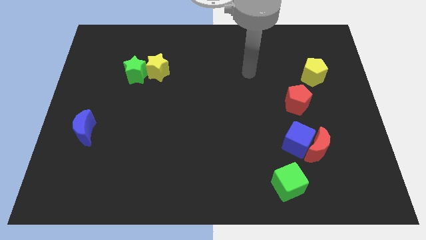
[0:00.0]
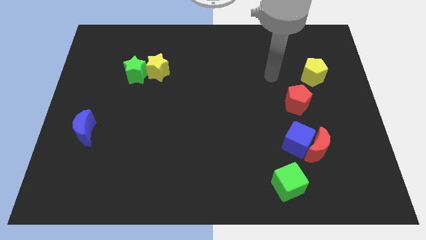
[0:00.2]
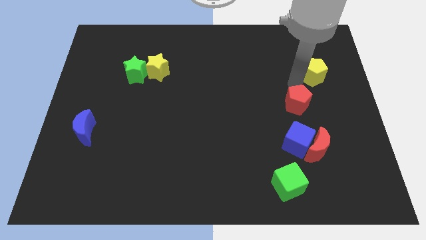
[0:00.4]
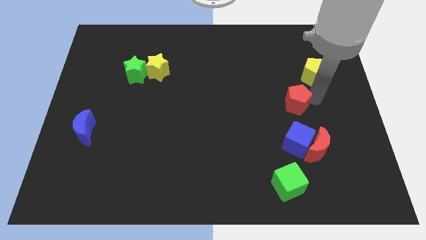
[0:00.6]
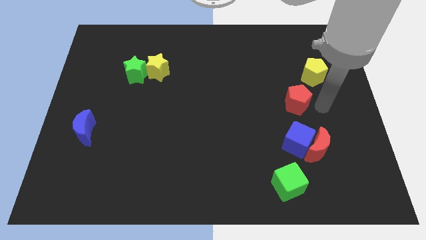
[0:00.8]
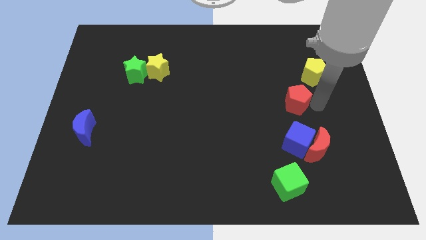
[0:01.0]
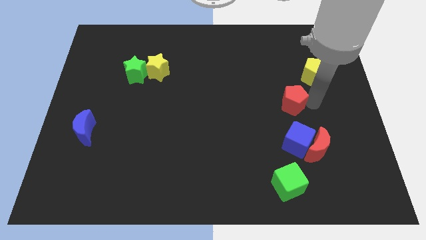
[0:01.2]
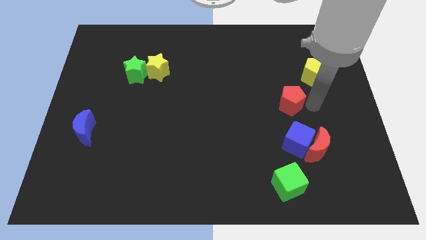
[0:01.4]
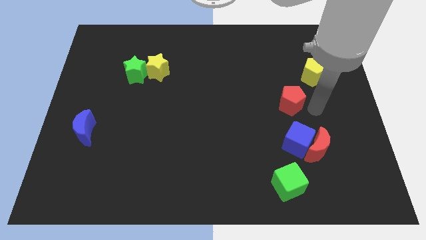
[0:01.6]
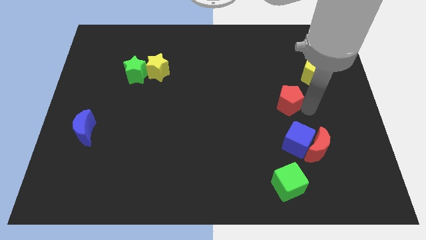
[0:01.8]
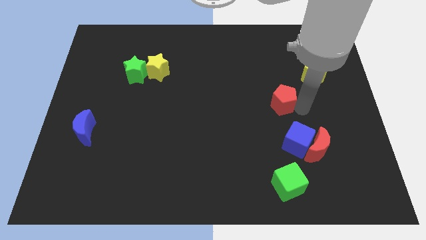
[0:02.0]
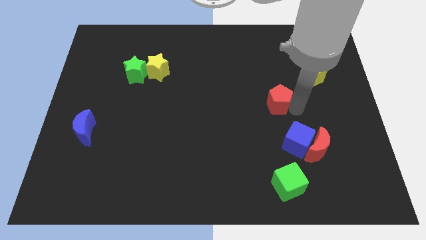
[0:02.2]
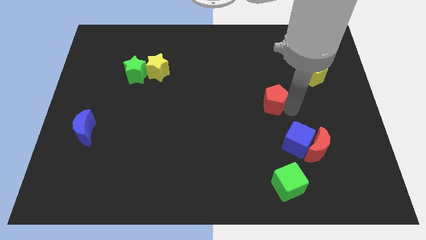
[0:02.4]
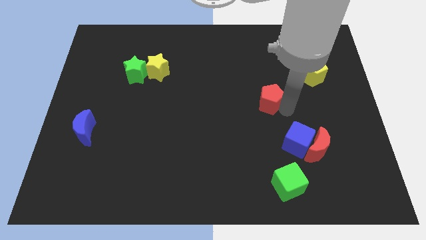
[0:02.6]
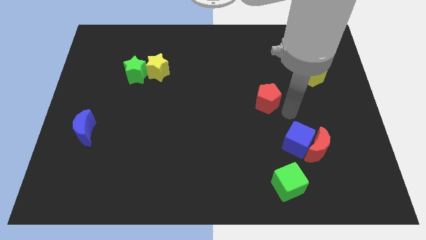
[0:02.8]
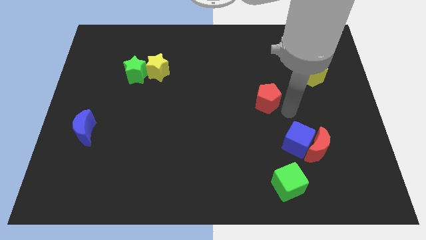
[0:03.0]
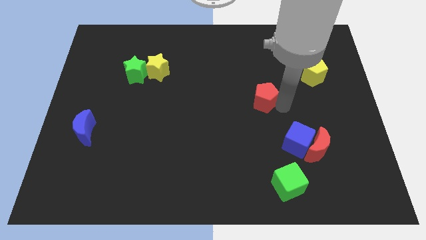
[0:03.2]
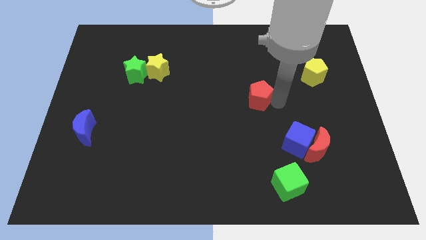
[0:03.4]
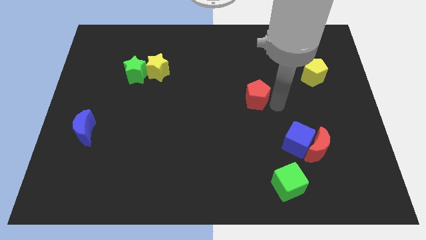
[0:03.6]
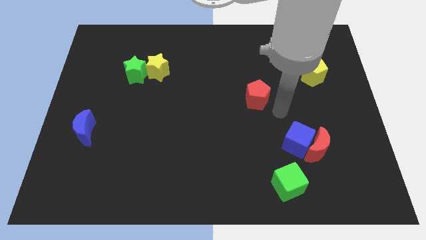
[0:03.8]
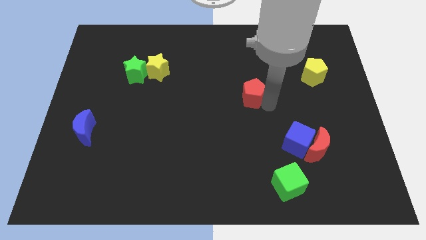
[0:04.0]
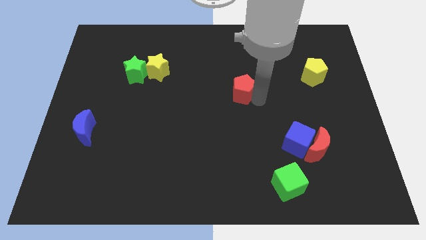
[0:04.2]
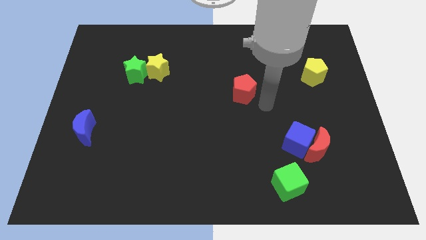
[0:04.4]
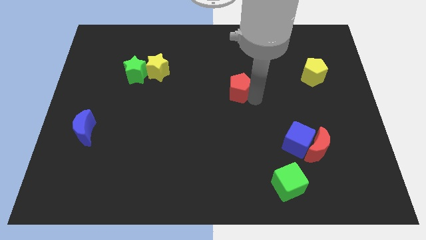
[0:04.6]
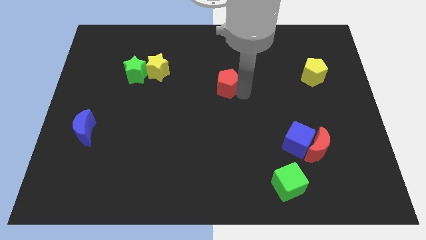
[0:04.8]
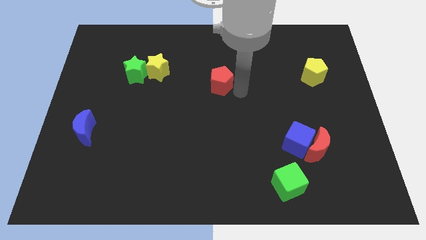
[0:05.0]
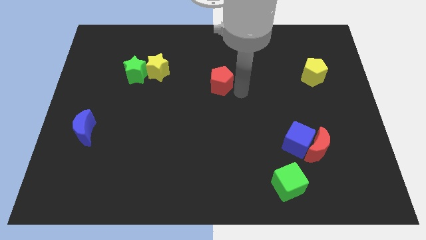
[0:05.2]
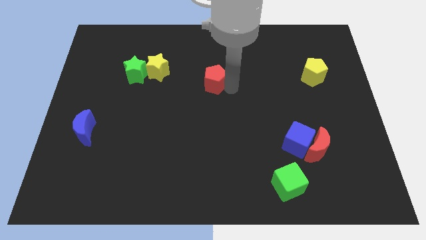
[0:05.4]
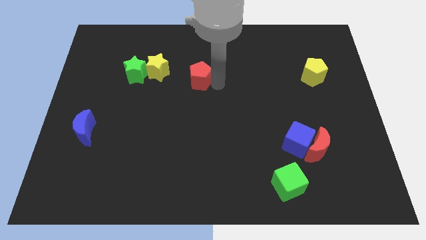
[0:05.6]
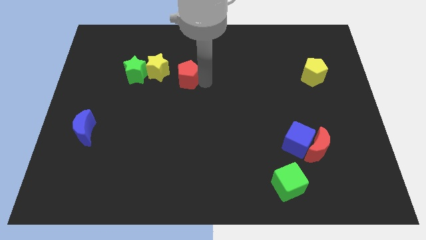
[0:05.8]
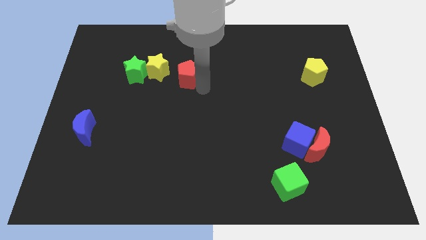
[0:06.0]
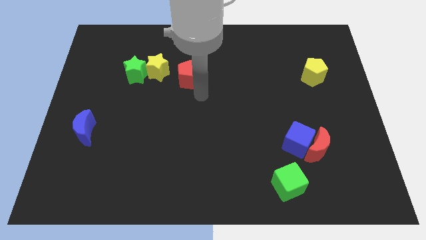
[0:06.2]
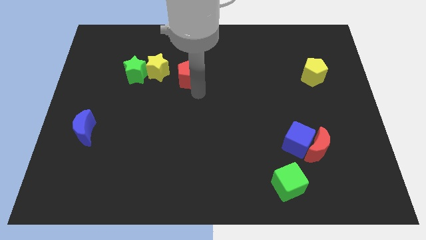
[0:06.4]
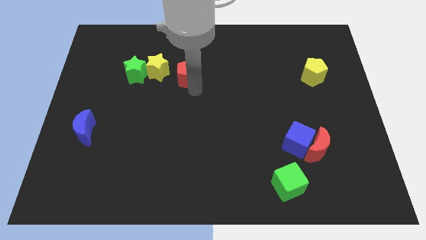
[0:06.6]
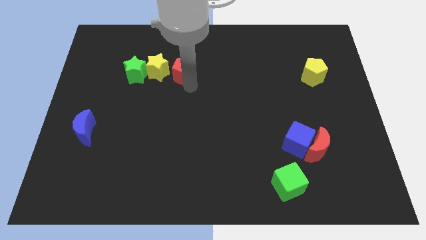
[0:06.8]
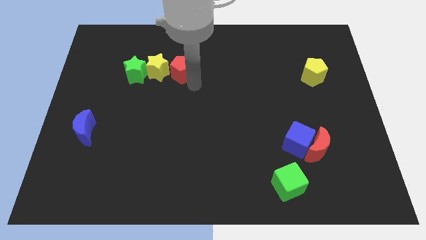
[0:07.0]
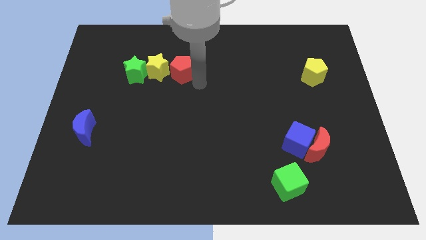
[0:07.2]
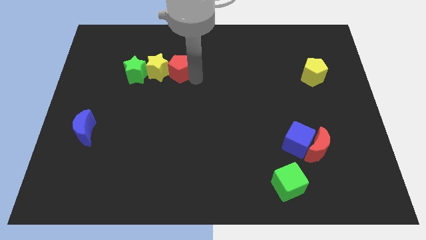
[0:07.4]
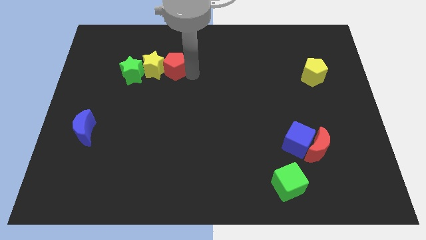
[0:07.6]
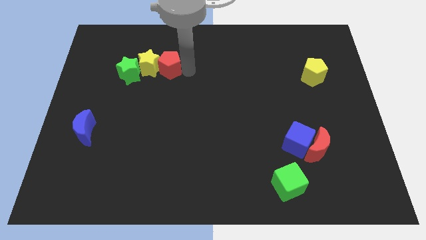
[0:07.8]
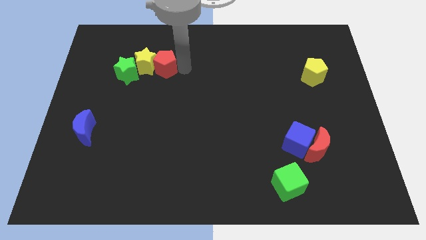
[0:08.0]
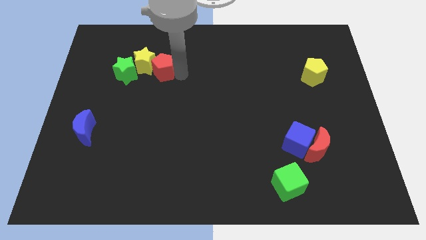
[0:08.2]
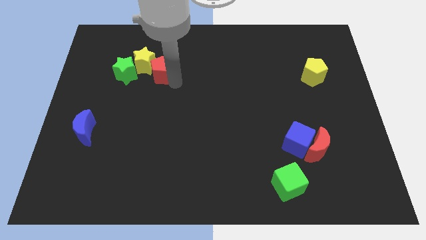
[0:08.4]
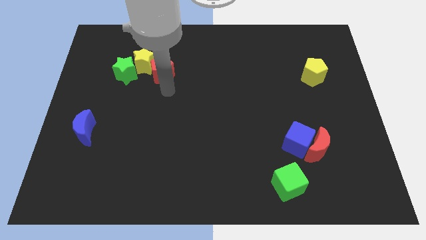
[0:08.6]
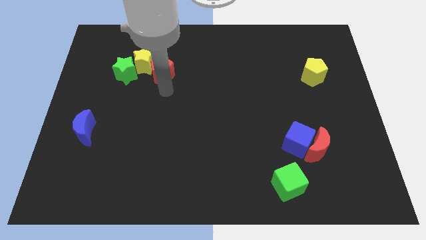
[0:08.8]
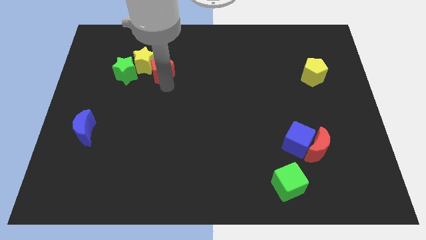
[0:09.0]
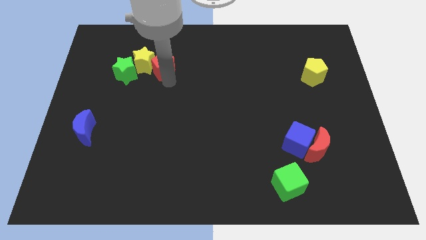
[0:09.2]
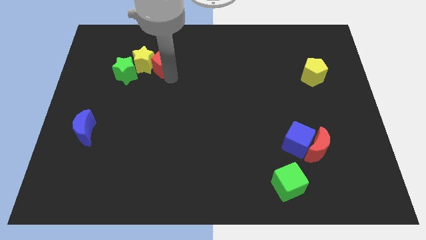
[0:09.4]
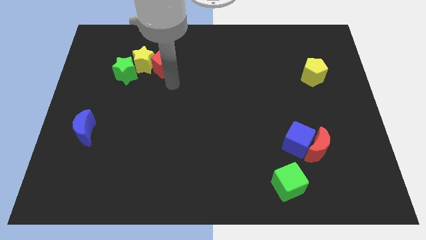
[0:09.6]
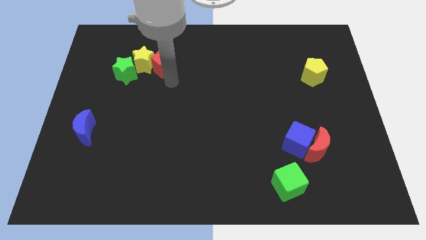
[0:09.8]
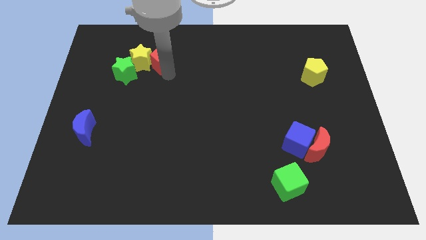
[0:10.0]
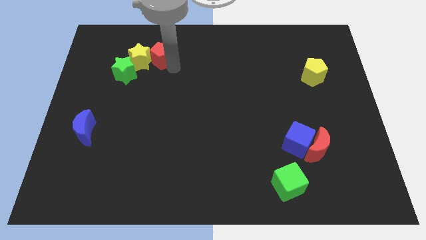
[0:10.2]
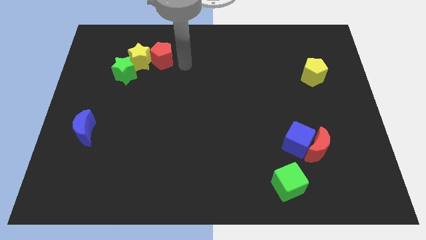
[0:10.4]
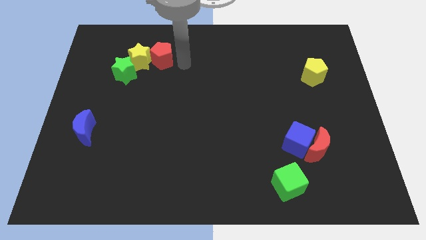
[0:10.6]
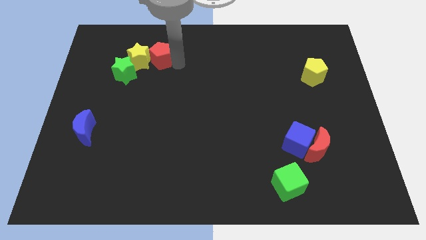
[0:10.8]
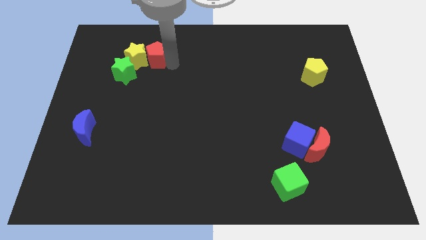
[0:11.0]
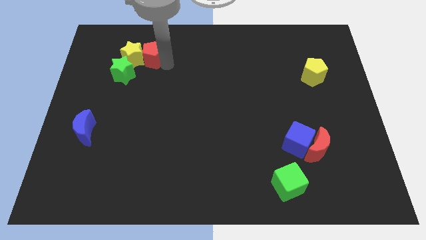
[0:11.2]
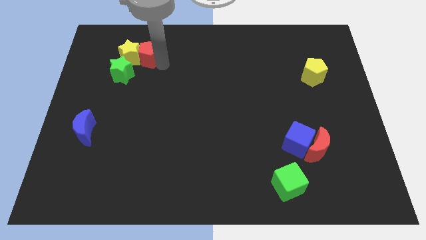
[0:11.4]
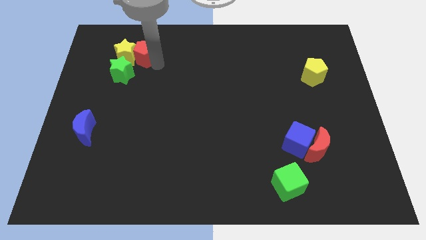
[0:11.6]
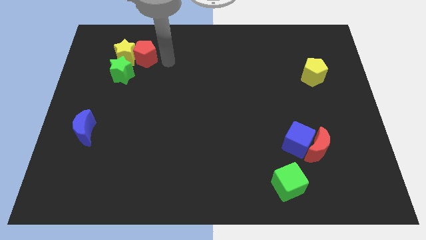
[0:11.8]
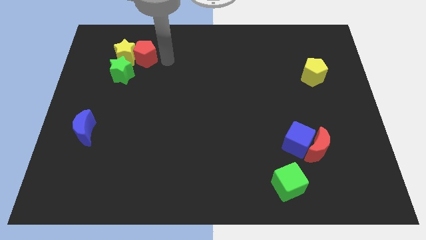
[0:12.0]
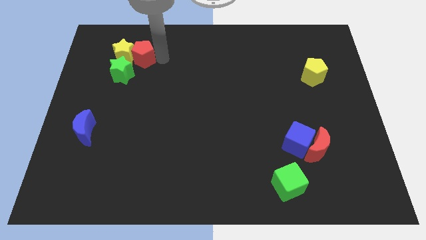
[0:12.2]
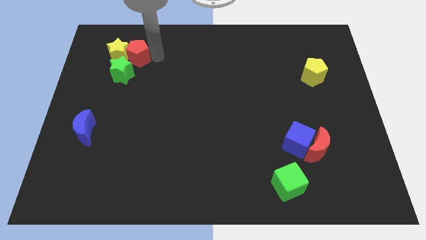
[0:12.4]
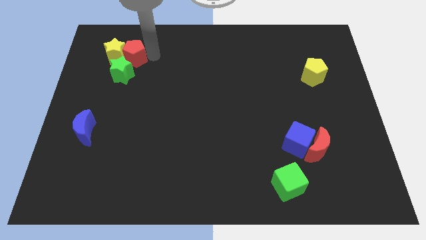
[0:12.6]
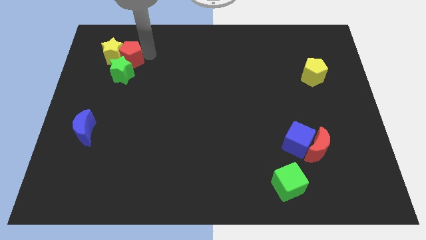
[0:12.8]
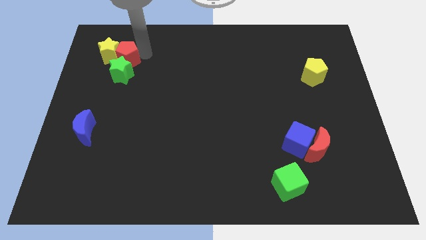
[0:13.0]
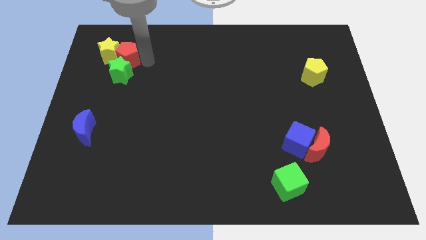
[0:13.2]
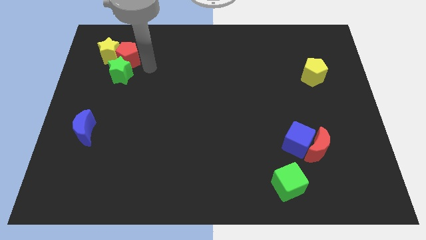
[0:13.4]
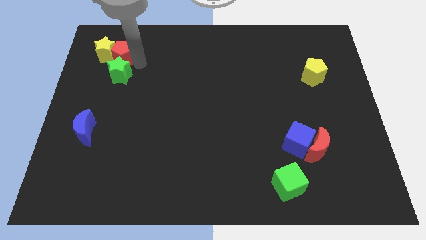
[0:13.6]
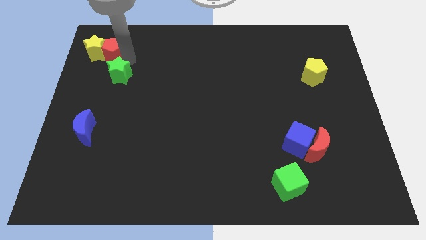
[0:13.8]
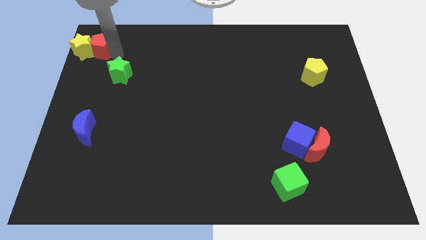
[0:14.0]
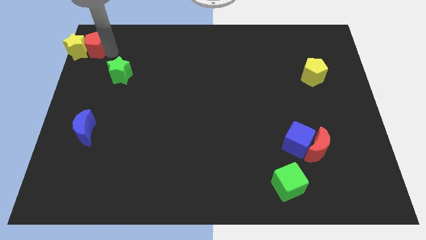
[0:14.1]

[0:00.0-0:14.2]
put the red pentagon to the top left of the board
